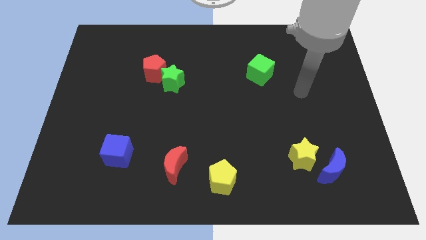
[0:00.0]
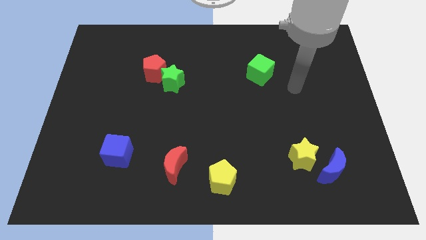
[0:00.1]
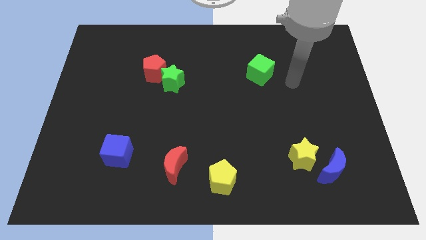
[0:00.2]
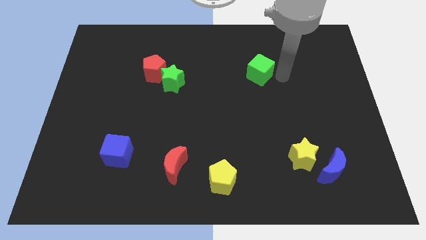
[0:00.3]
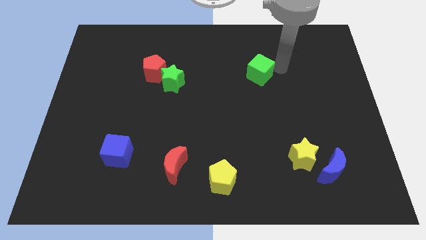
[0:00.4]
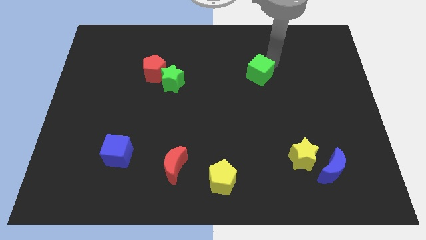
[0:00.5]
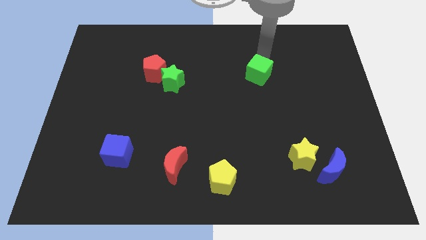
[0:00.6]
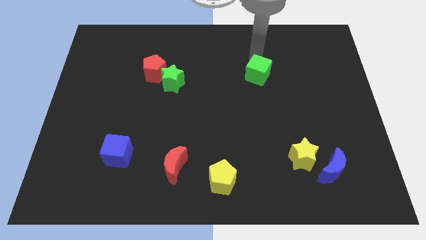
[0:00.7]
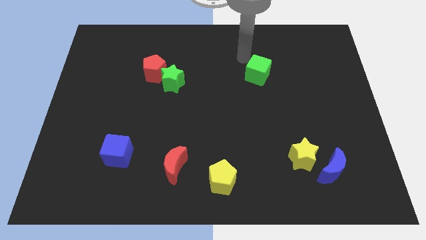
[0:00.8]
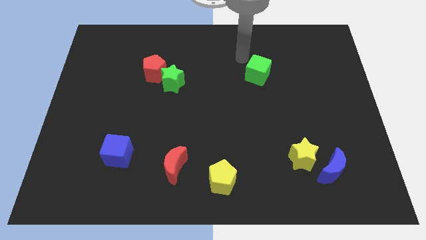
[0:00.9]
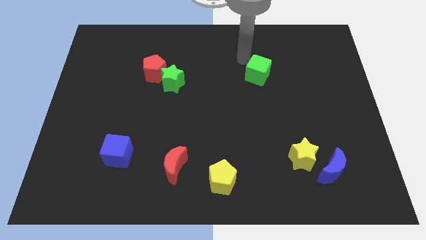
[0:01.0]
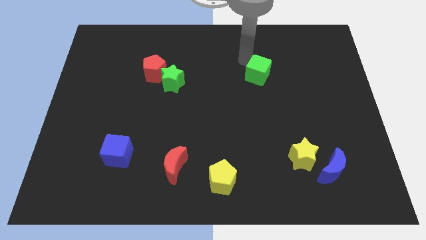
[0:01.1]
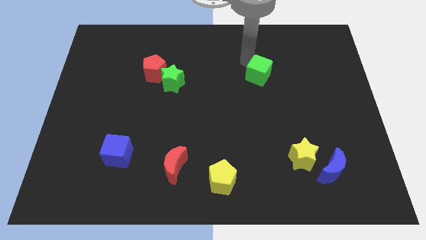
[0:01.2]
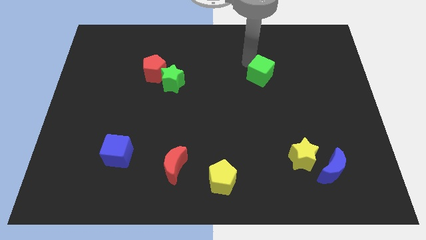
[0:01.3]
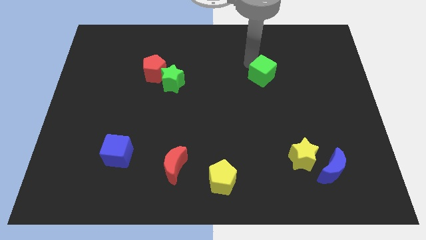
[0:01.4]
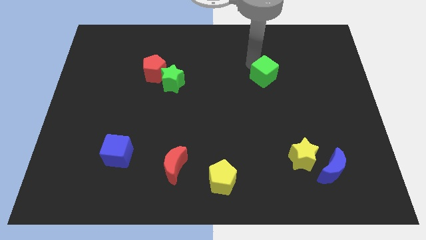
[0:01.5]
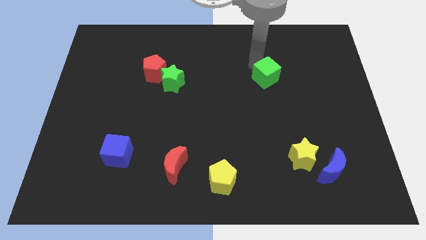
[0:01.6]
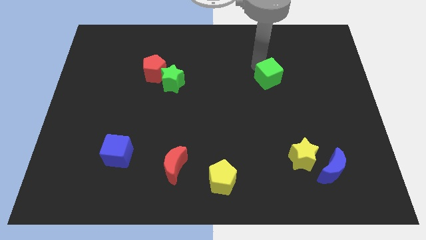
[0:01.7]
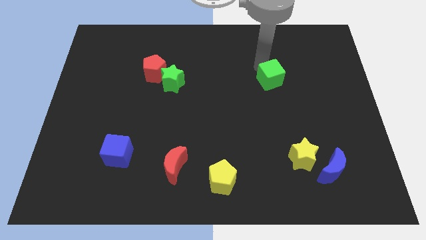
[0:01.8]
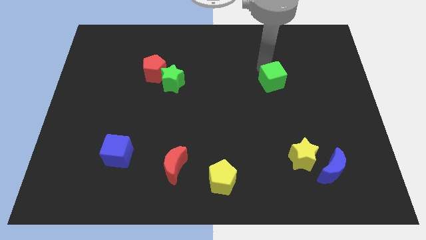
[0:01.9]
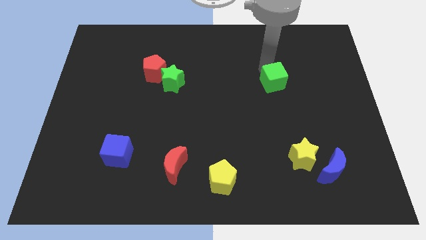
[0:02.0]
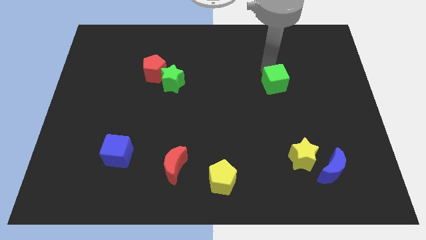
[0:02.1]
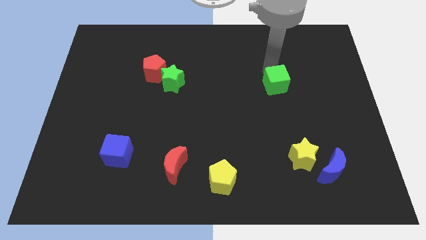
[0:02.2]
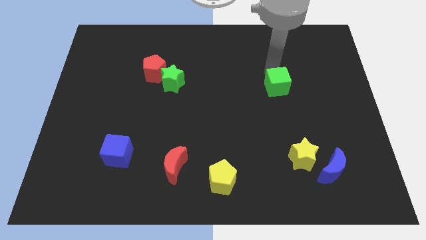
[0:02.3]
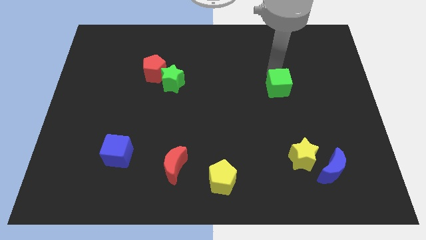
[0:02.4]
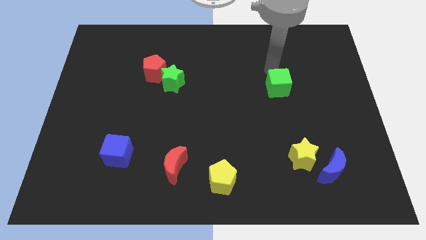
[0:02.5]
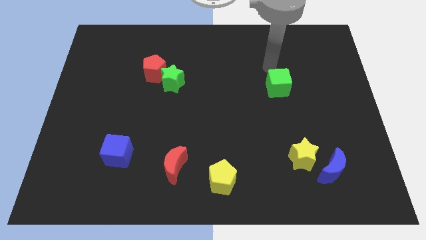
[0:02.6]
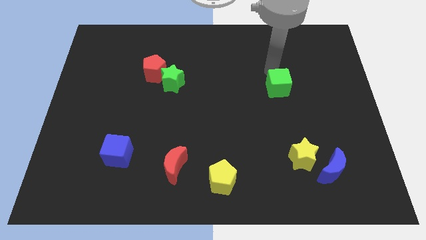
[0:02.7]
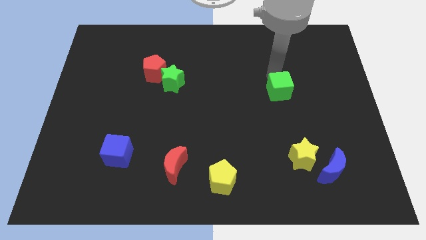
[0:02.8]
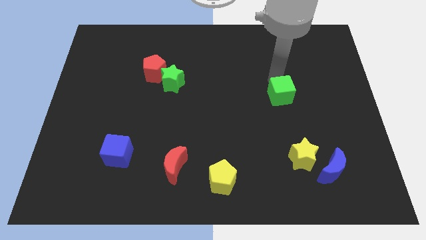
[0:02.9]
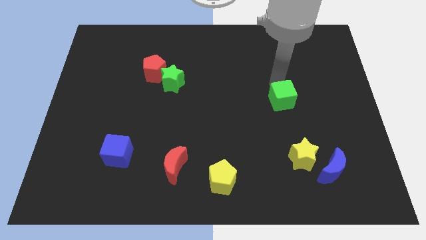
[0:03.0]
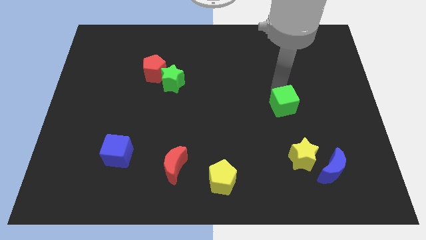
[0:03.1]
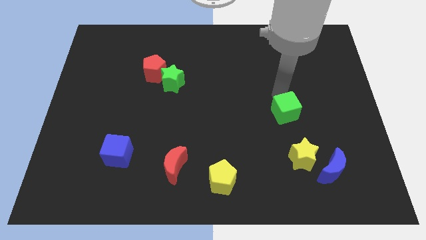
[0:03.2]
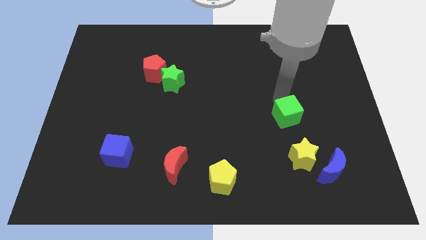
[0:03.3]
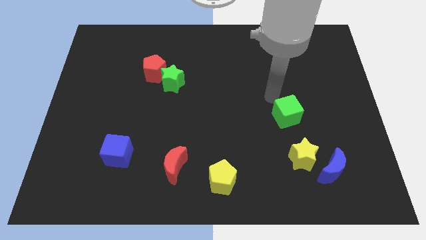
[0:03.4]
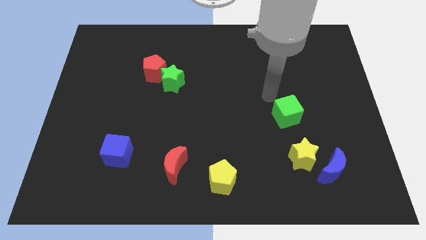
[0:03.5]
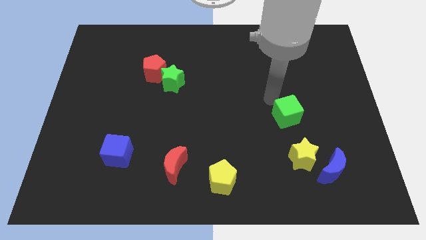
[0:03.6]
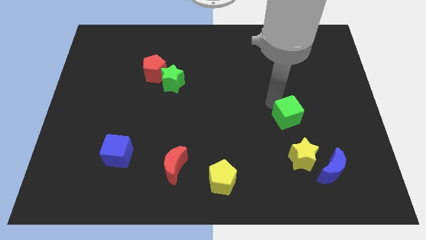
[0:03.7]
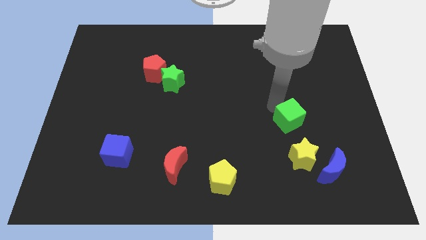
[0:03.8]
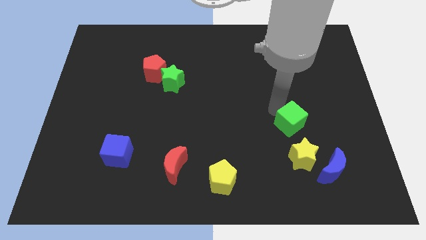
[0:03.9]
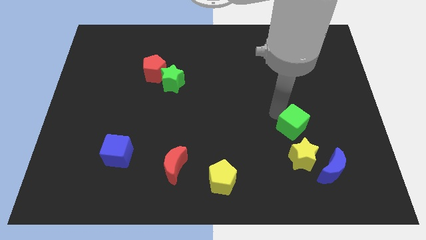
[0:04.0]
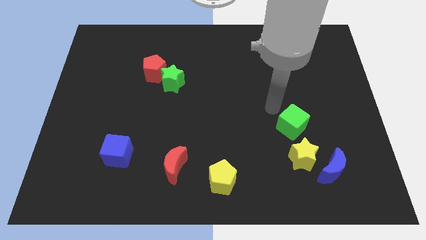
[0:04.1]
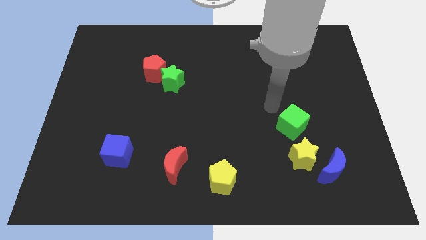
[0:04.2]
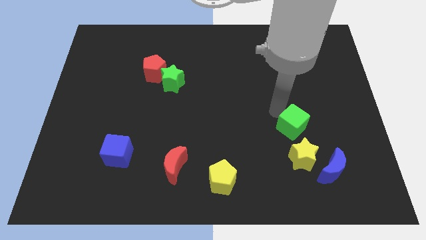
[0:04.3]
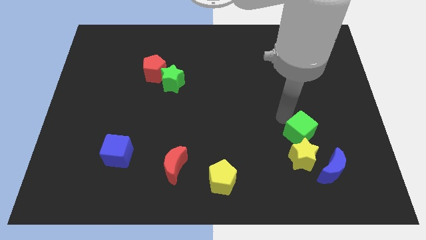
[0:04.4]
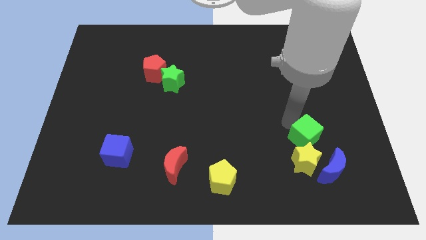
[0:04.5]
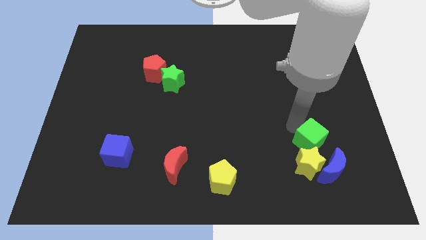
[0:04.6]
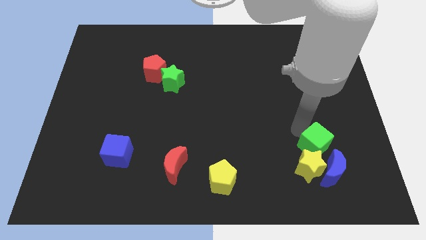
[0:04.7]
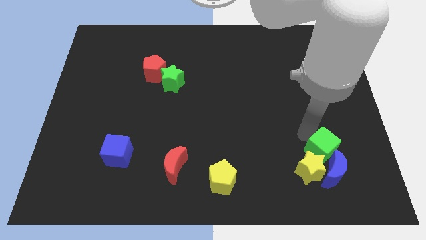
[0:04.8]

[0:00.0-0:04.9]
move the green cube close to the blue moon

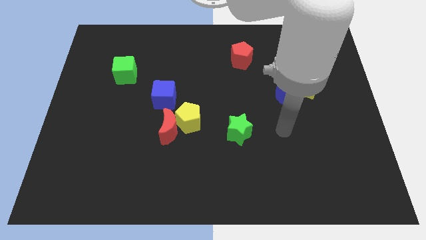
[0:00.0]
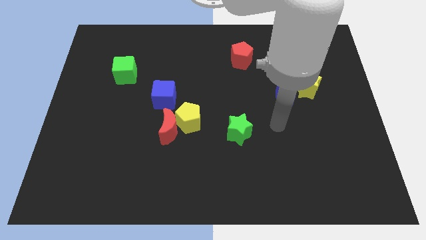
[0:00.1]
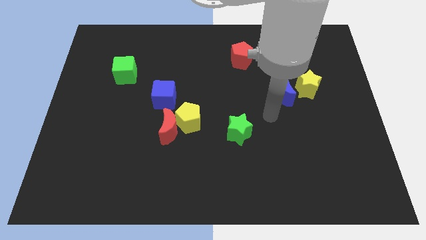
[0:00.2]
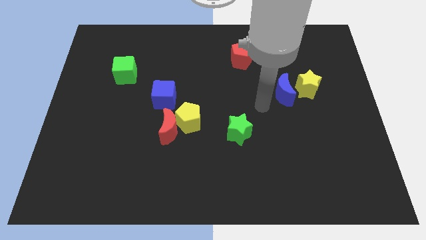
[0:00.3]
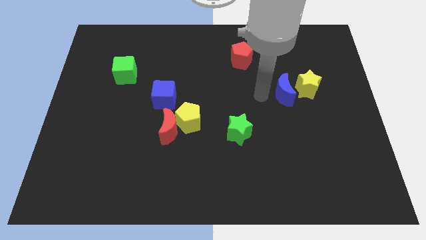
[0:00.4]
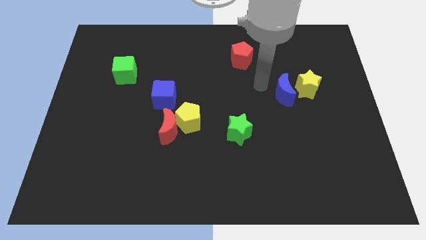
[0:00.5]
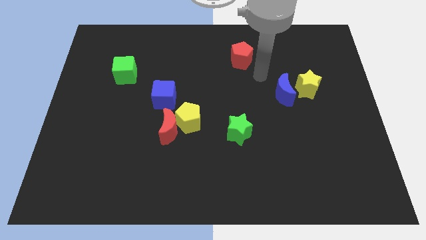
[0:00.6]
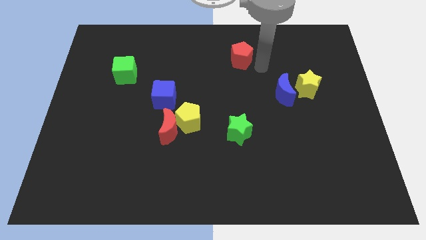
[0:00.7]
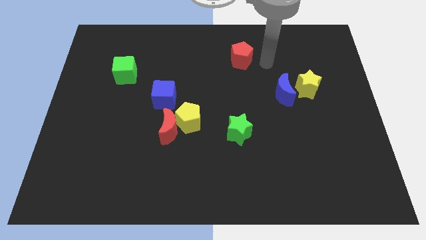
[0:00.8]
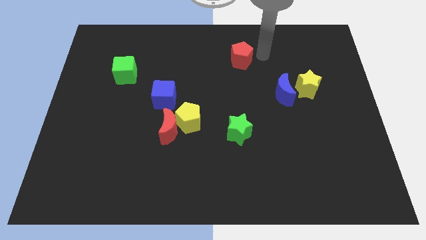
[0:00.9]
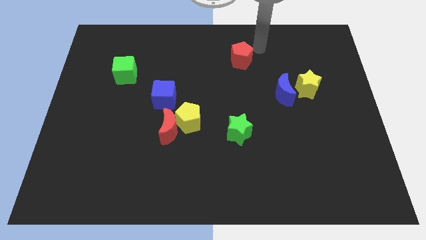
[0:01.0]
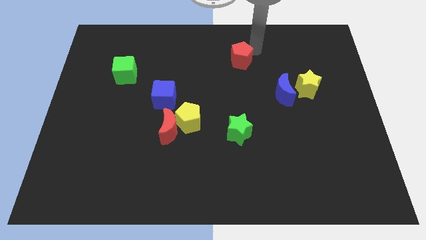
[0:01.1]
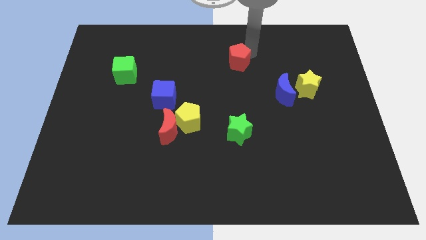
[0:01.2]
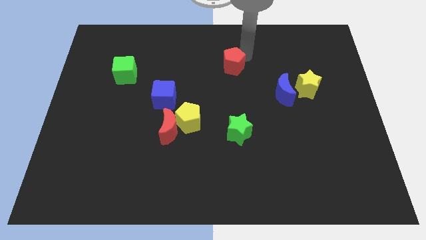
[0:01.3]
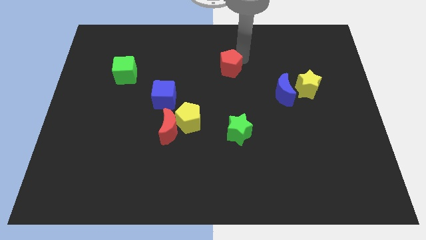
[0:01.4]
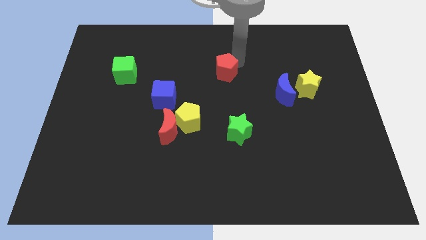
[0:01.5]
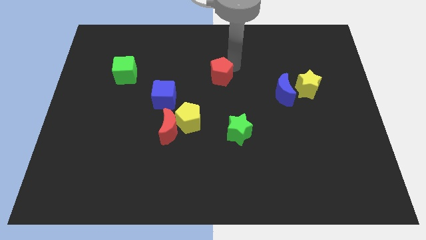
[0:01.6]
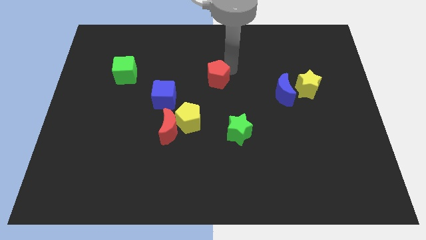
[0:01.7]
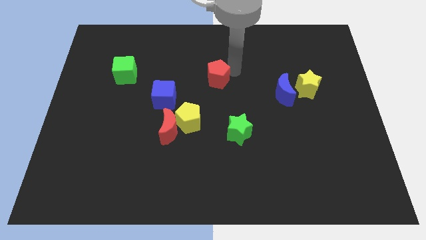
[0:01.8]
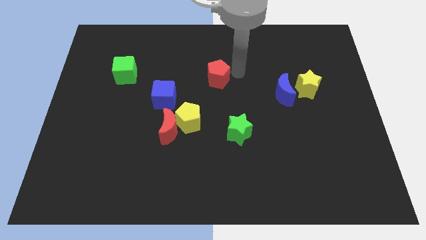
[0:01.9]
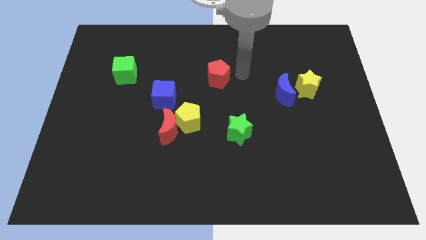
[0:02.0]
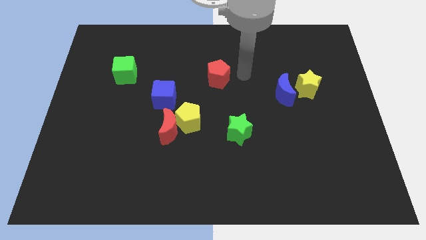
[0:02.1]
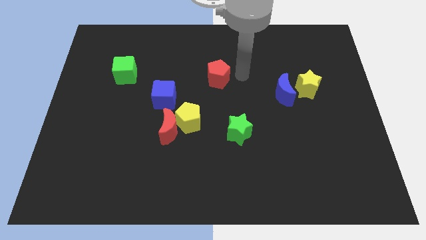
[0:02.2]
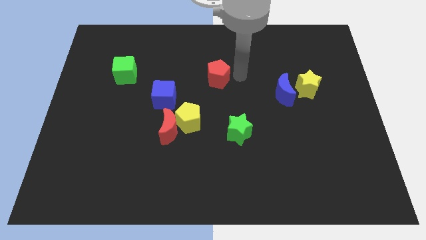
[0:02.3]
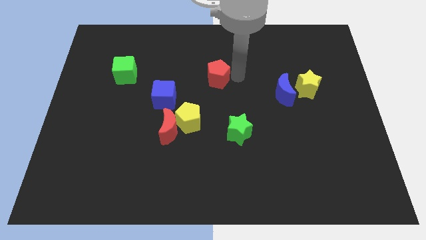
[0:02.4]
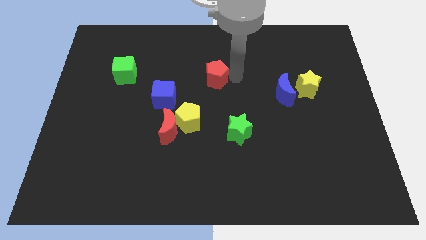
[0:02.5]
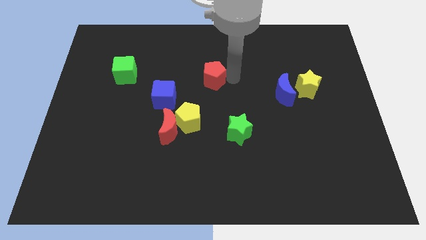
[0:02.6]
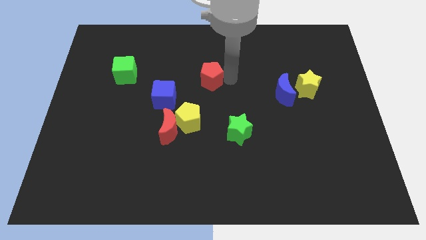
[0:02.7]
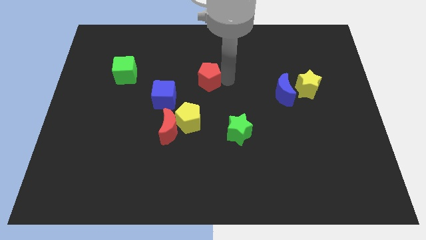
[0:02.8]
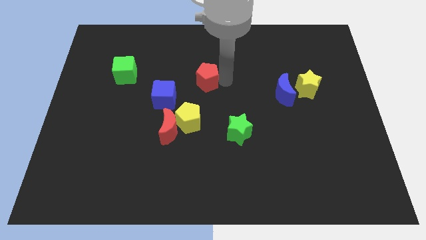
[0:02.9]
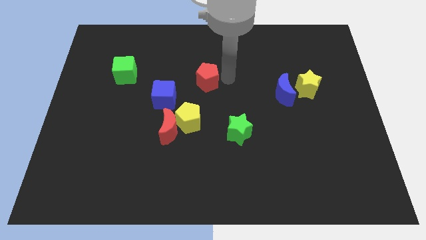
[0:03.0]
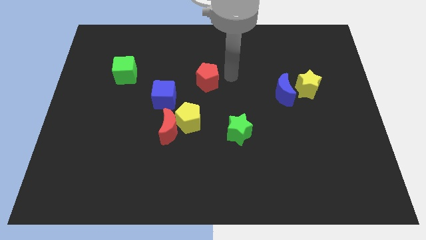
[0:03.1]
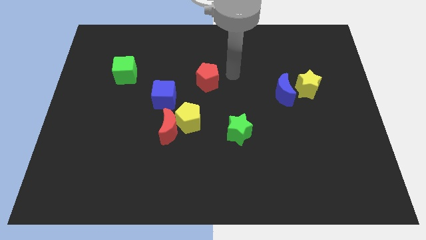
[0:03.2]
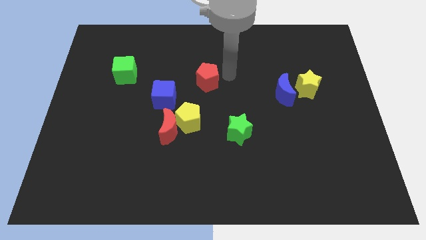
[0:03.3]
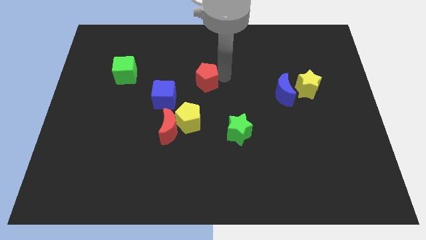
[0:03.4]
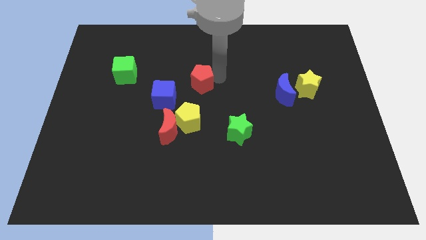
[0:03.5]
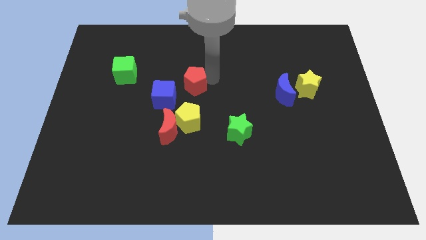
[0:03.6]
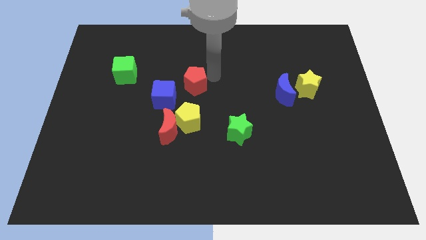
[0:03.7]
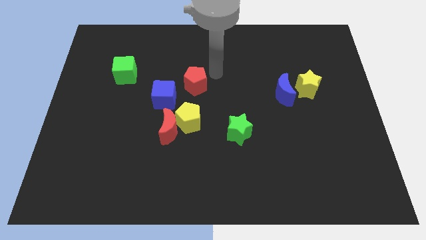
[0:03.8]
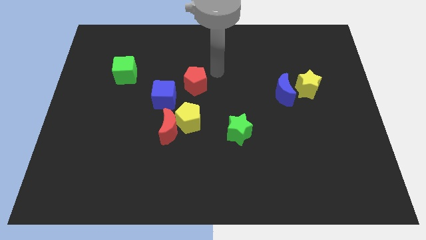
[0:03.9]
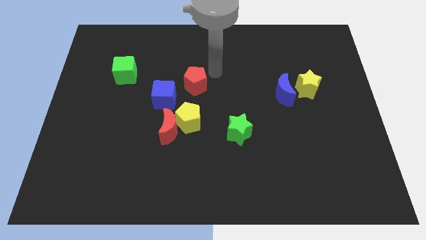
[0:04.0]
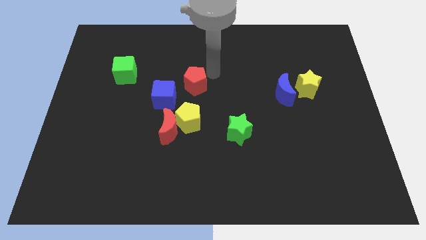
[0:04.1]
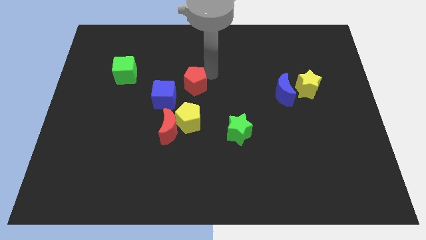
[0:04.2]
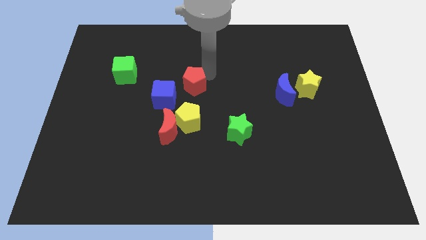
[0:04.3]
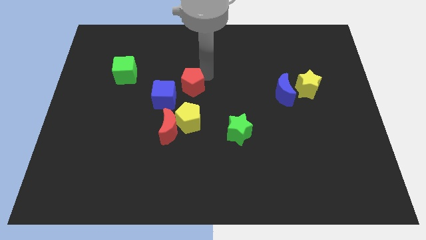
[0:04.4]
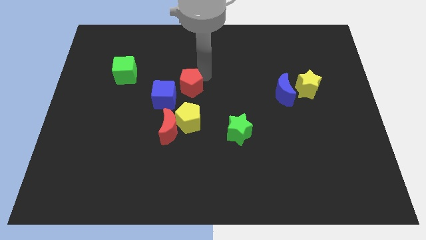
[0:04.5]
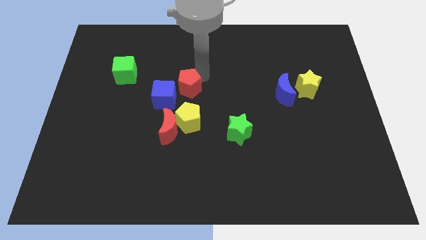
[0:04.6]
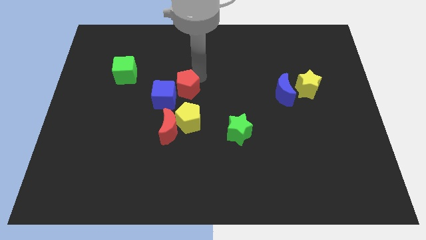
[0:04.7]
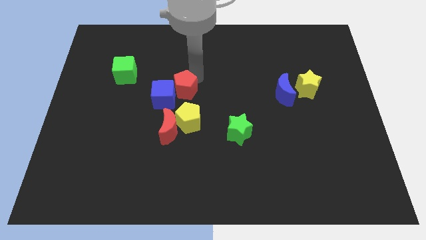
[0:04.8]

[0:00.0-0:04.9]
put the red pentagon next to the blue cube
